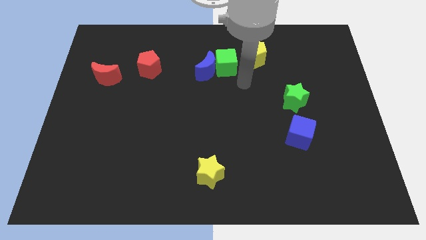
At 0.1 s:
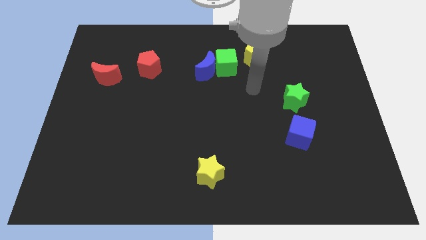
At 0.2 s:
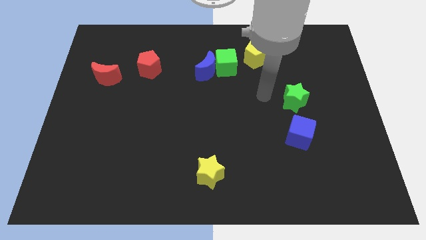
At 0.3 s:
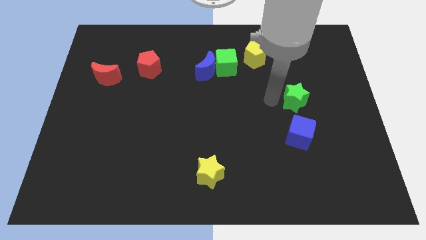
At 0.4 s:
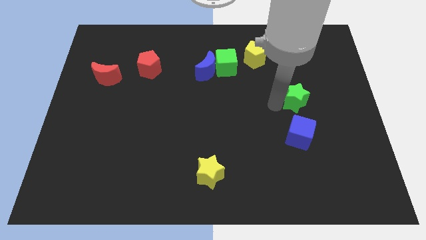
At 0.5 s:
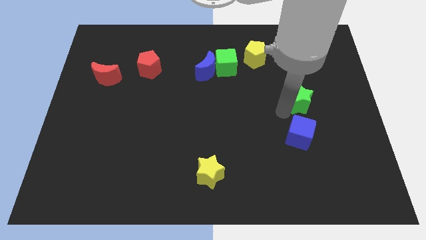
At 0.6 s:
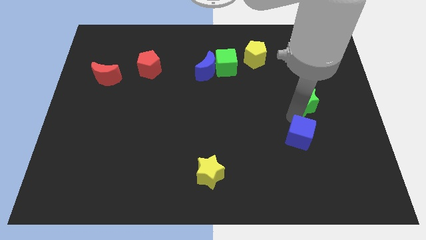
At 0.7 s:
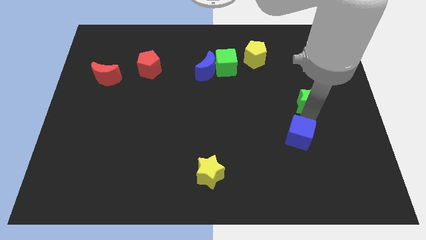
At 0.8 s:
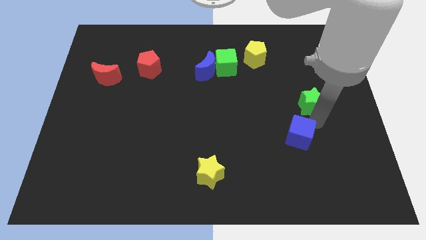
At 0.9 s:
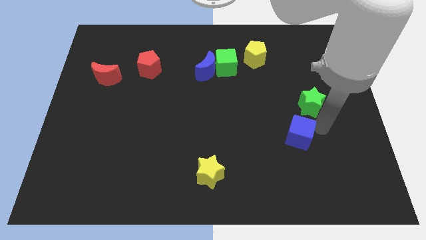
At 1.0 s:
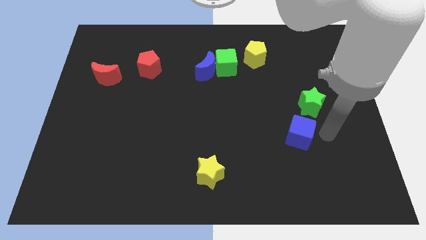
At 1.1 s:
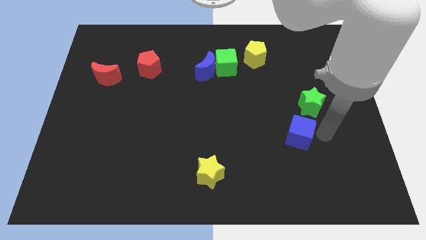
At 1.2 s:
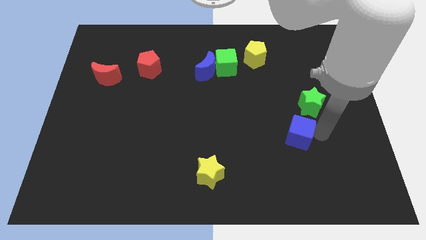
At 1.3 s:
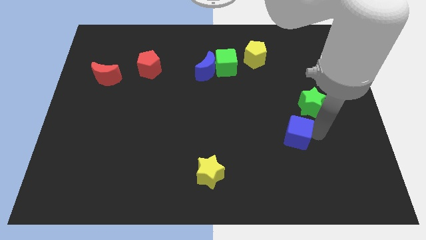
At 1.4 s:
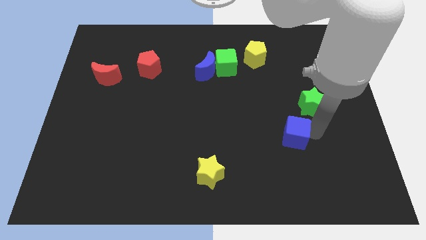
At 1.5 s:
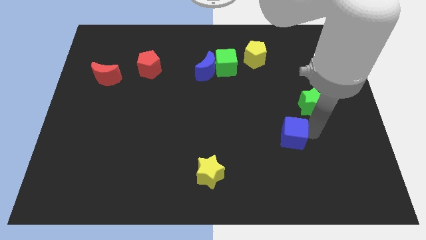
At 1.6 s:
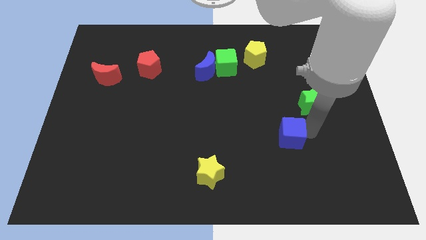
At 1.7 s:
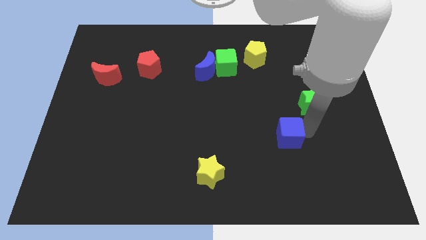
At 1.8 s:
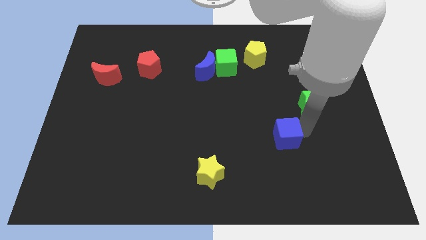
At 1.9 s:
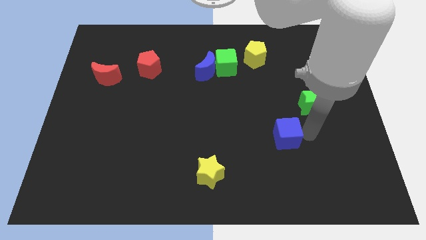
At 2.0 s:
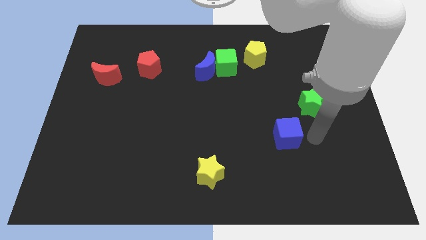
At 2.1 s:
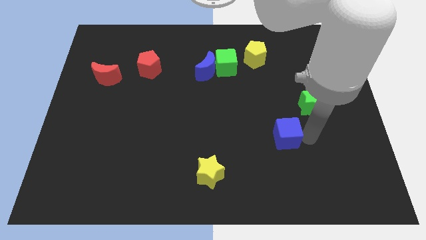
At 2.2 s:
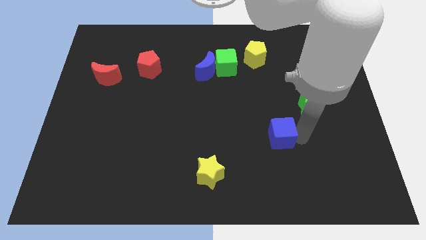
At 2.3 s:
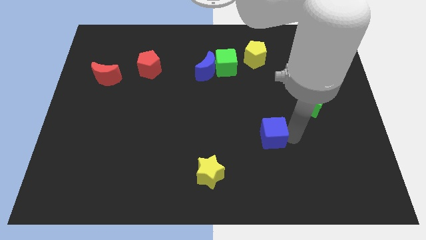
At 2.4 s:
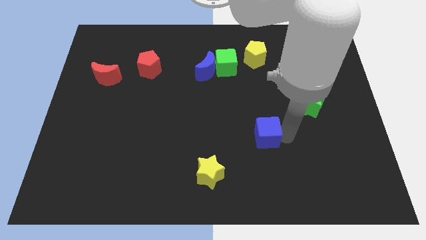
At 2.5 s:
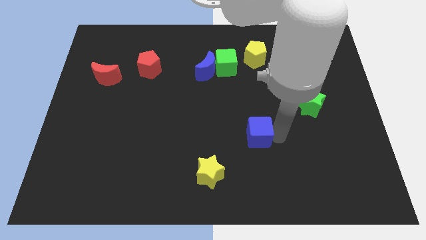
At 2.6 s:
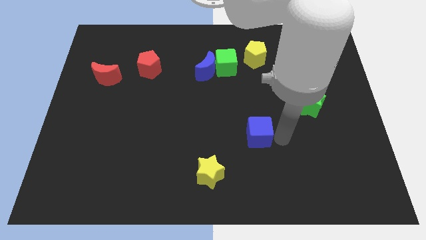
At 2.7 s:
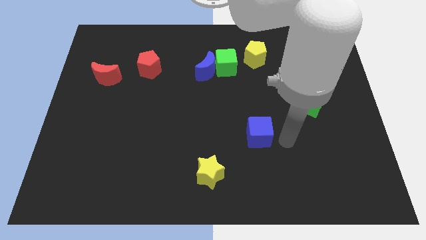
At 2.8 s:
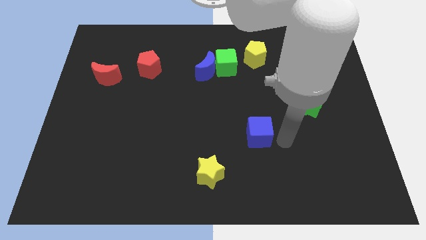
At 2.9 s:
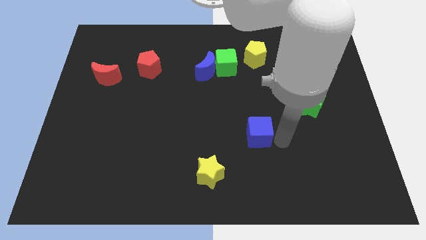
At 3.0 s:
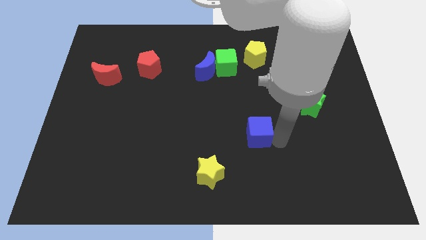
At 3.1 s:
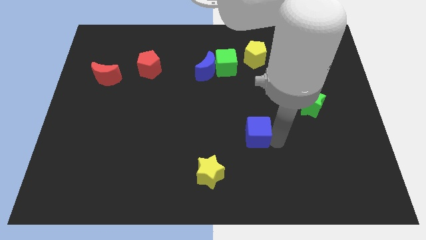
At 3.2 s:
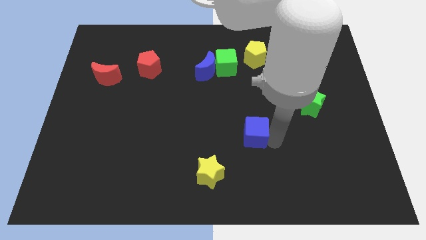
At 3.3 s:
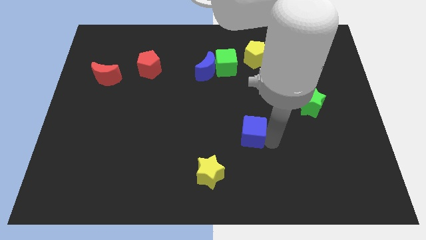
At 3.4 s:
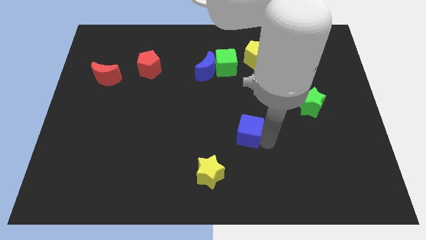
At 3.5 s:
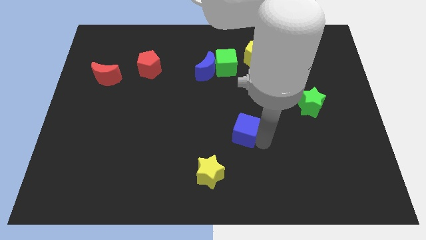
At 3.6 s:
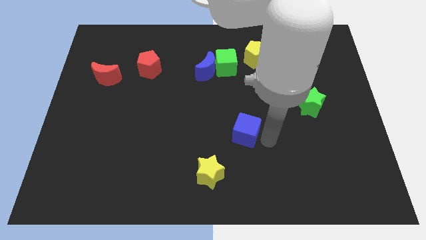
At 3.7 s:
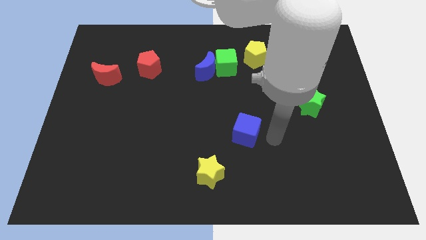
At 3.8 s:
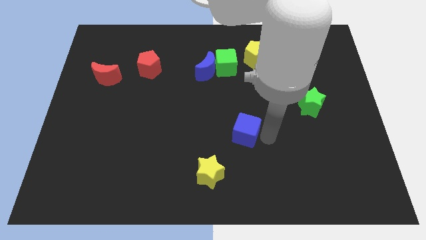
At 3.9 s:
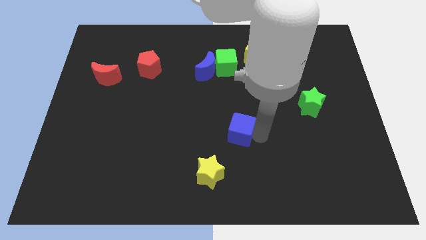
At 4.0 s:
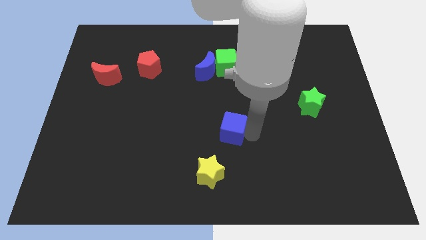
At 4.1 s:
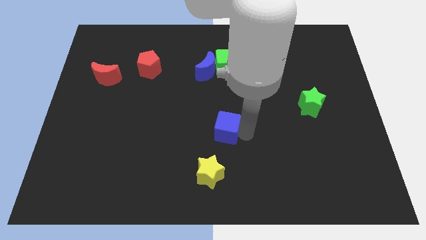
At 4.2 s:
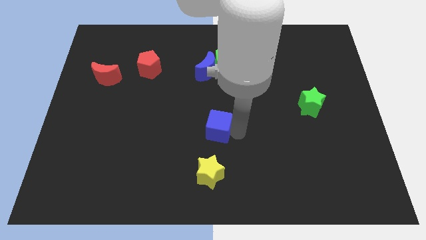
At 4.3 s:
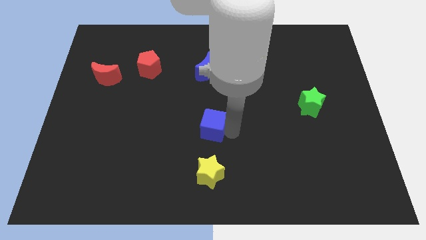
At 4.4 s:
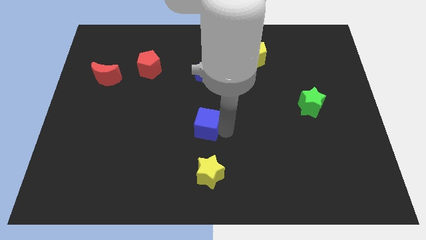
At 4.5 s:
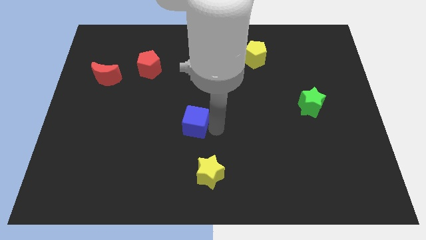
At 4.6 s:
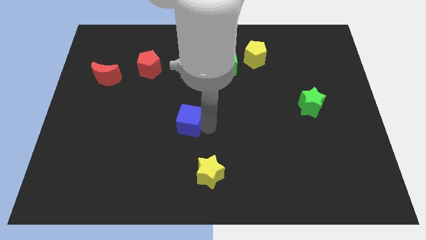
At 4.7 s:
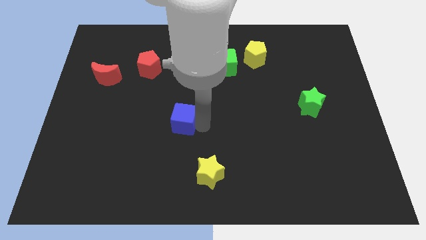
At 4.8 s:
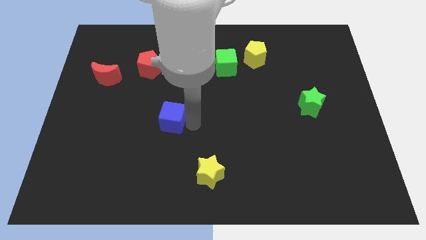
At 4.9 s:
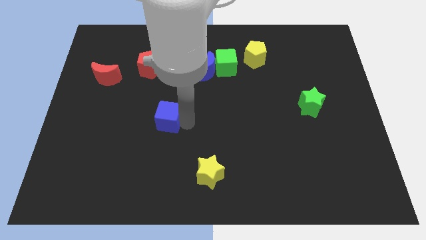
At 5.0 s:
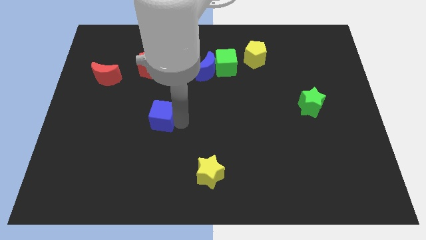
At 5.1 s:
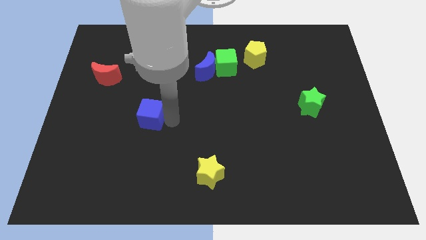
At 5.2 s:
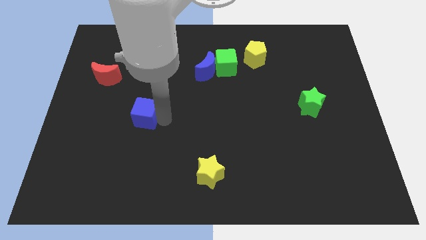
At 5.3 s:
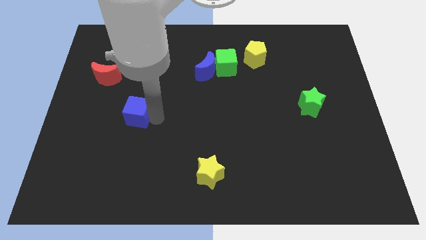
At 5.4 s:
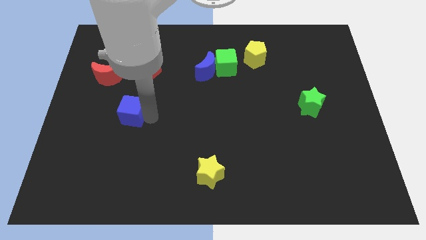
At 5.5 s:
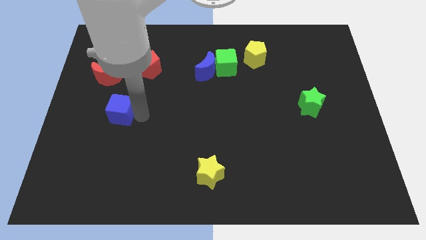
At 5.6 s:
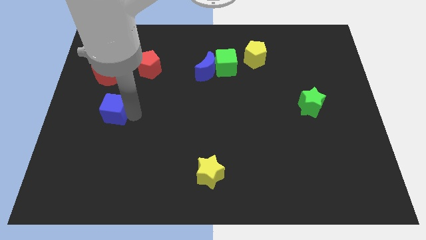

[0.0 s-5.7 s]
slide the blue cube to the bottom side of the red moon

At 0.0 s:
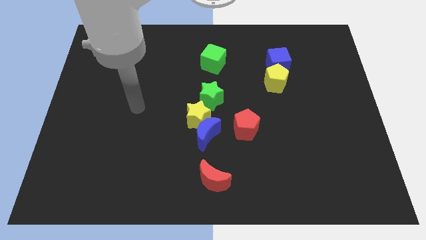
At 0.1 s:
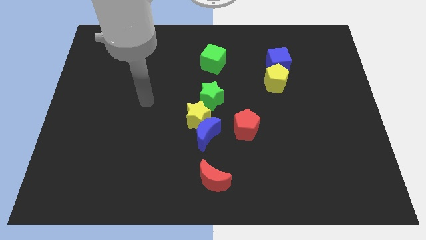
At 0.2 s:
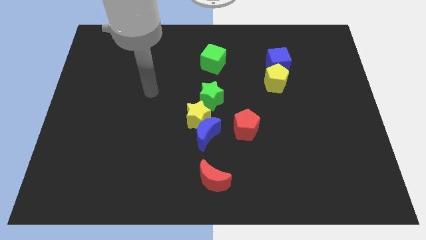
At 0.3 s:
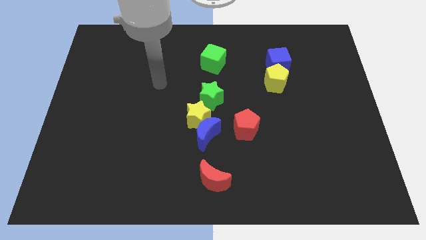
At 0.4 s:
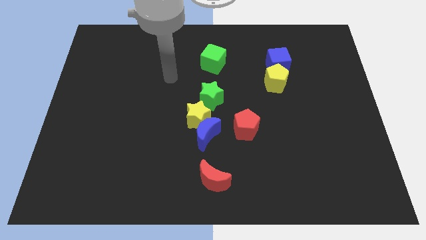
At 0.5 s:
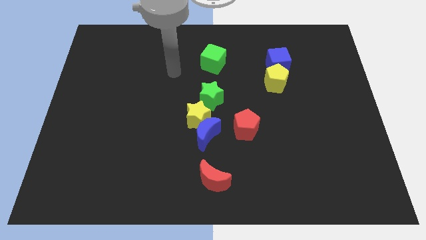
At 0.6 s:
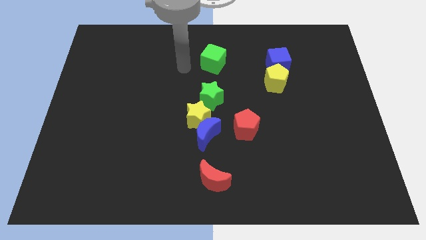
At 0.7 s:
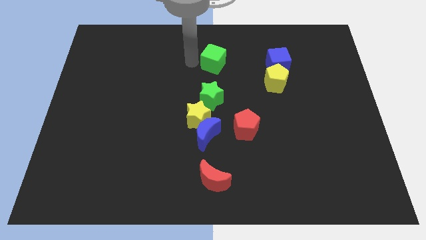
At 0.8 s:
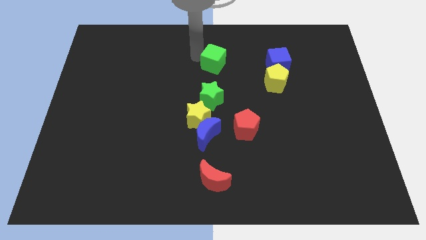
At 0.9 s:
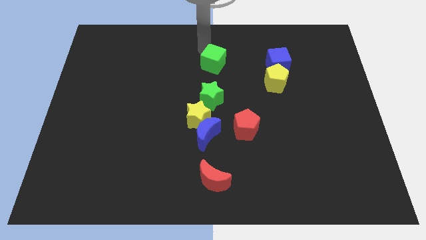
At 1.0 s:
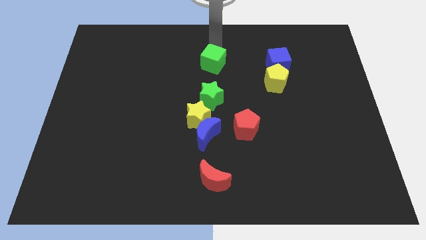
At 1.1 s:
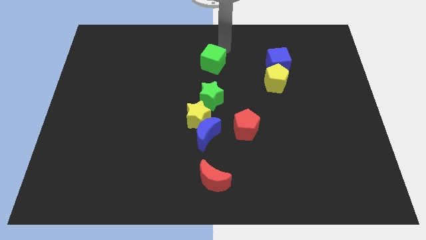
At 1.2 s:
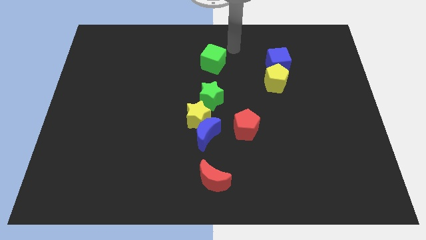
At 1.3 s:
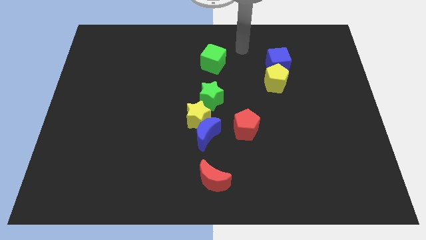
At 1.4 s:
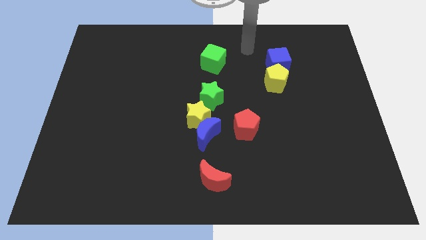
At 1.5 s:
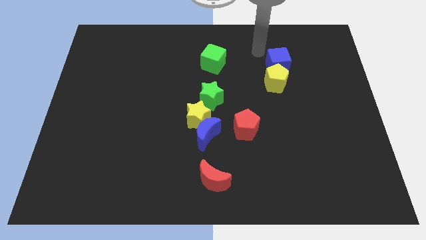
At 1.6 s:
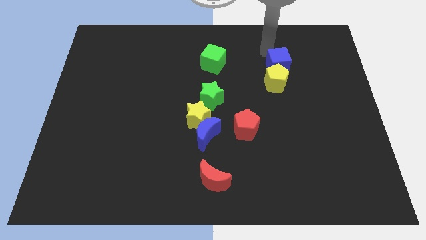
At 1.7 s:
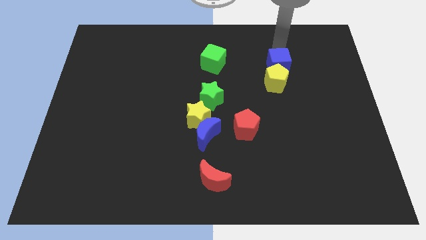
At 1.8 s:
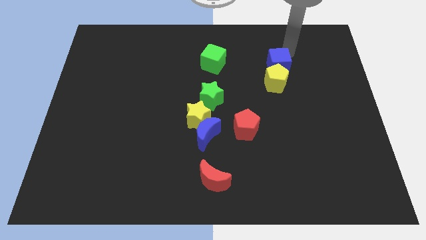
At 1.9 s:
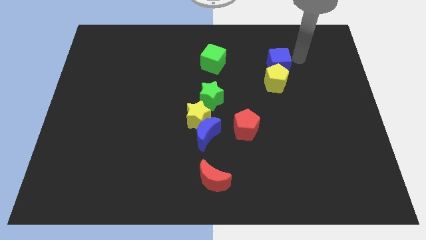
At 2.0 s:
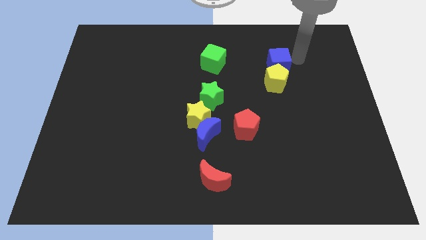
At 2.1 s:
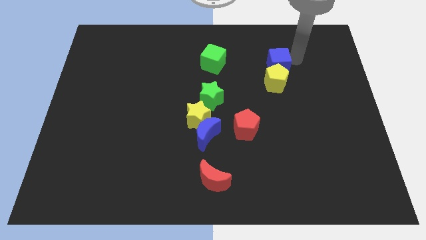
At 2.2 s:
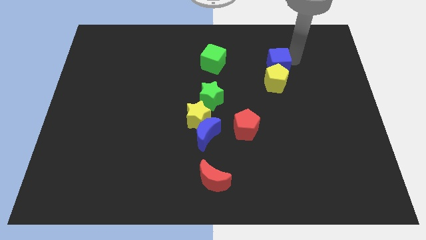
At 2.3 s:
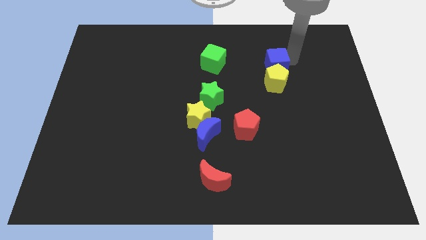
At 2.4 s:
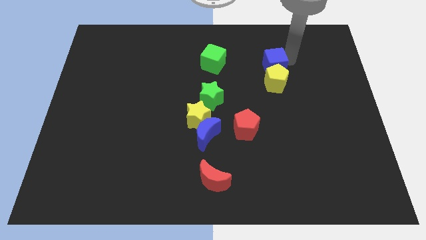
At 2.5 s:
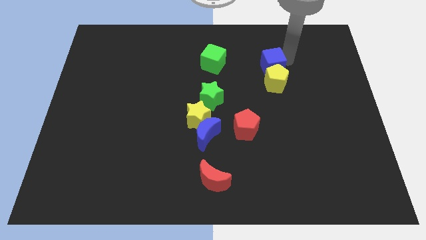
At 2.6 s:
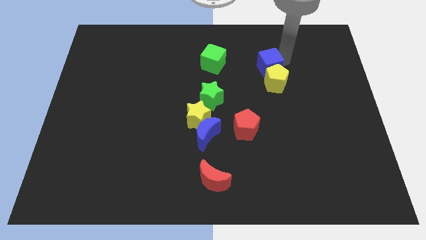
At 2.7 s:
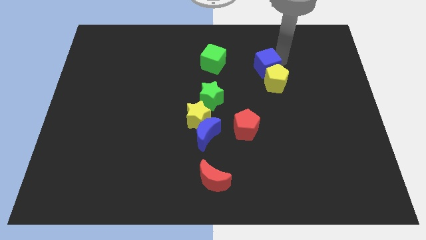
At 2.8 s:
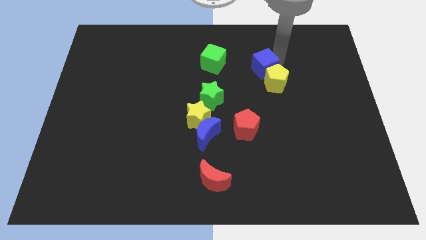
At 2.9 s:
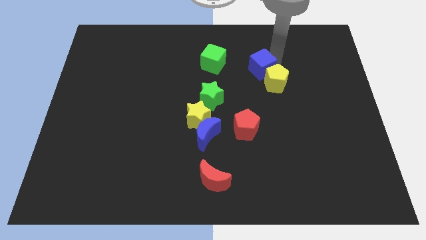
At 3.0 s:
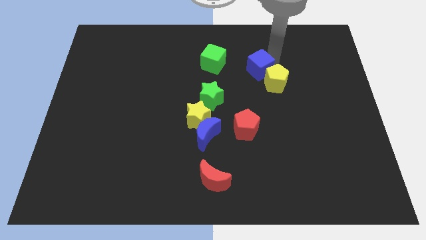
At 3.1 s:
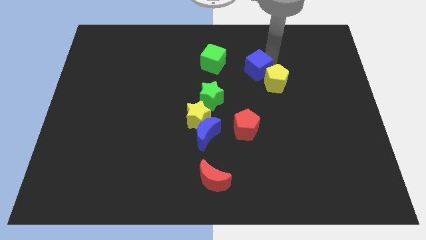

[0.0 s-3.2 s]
push the blue cube to the left side of the yellow pentagon
